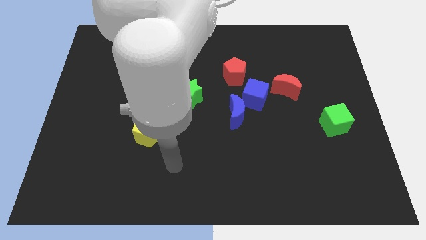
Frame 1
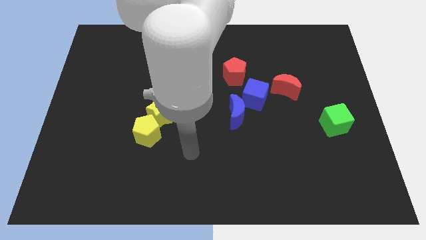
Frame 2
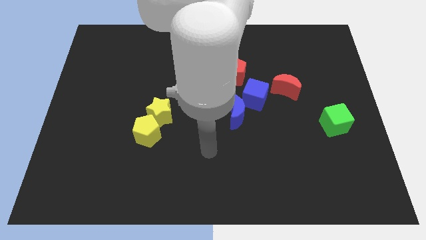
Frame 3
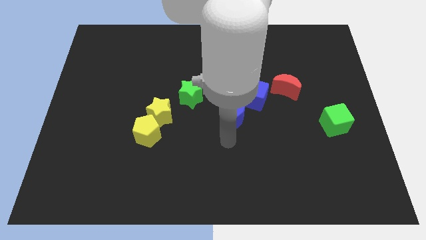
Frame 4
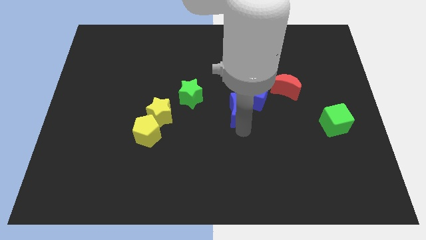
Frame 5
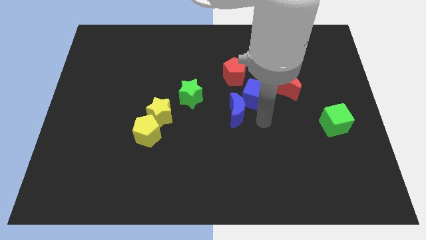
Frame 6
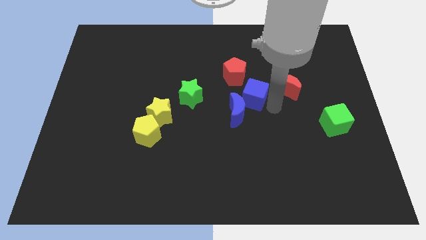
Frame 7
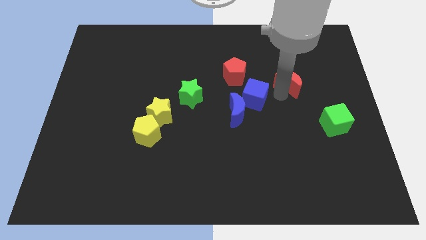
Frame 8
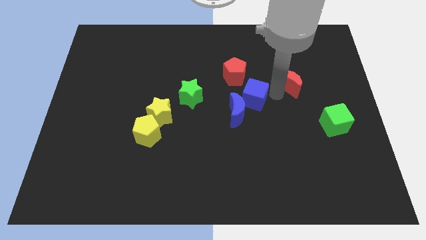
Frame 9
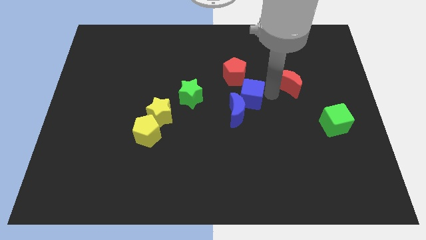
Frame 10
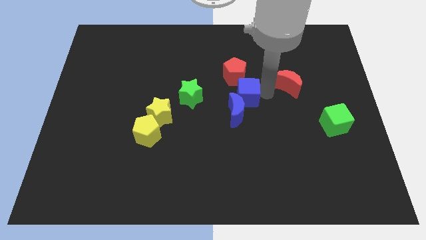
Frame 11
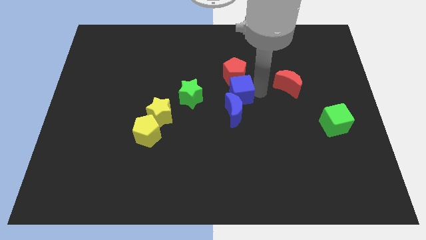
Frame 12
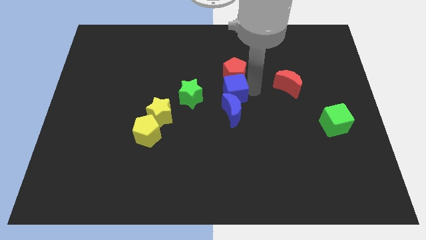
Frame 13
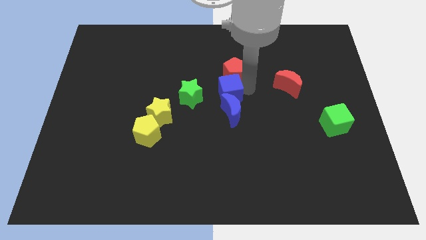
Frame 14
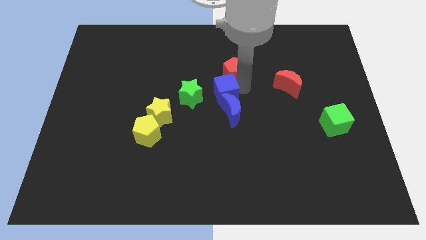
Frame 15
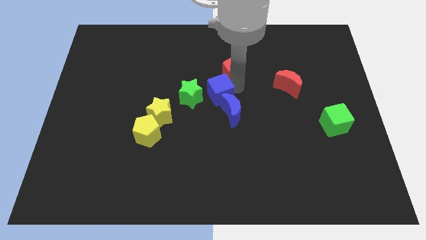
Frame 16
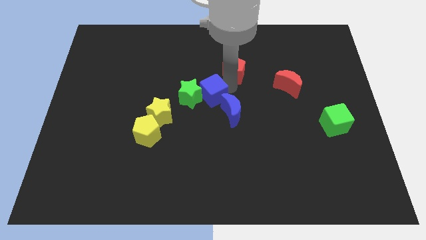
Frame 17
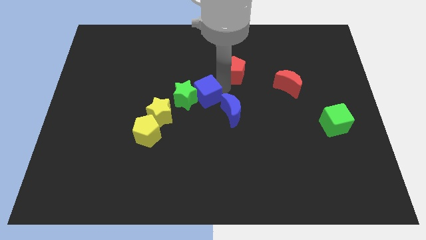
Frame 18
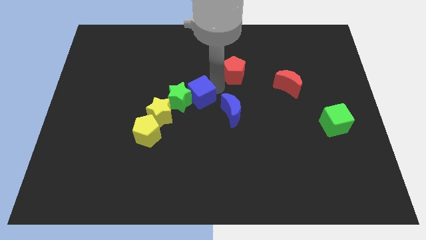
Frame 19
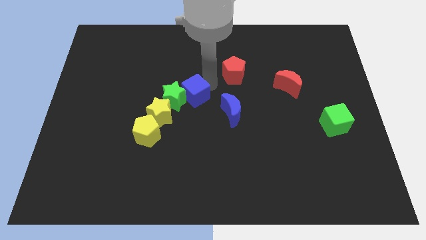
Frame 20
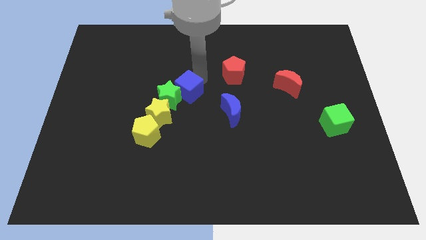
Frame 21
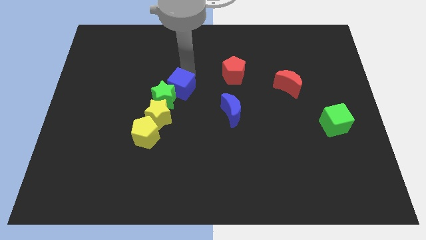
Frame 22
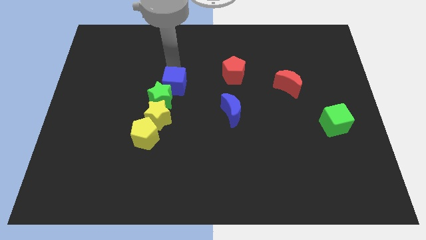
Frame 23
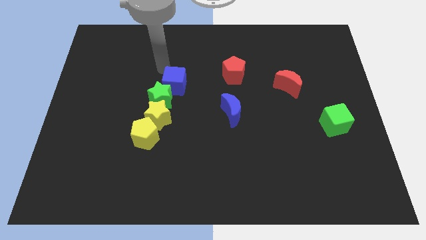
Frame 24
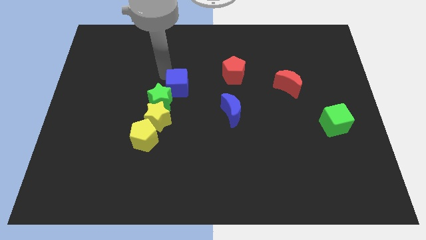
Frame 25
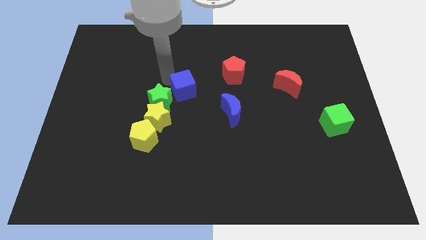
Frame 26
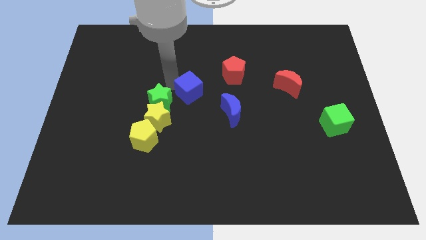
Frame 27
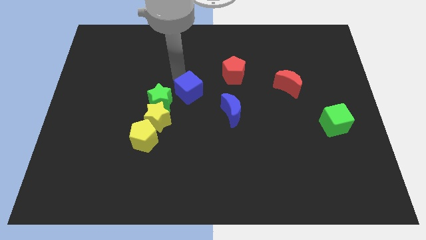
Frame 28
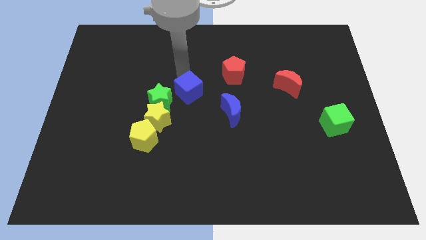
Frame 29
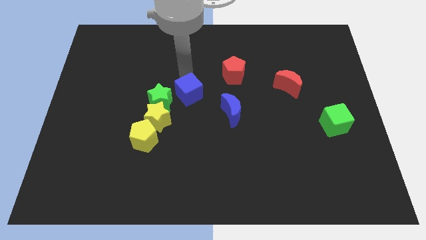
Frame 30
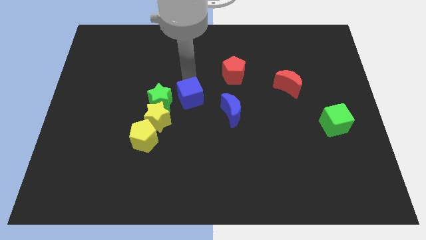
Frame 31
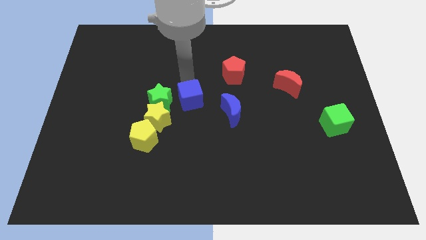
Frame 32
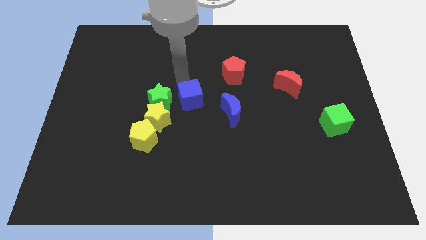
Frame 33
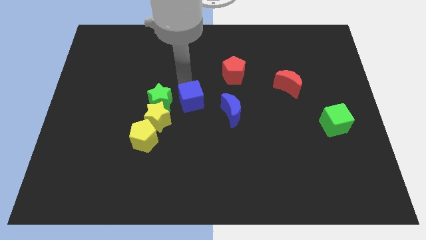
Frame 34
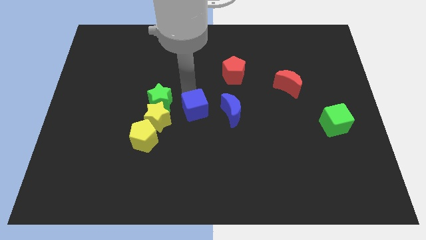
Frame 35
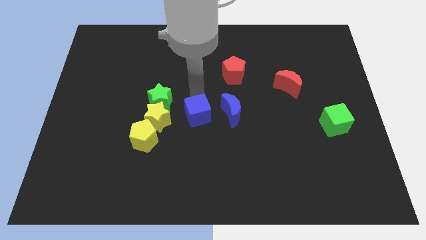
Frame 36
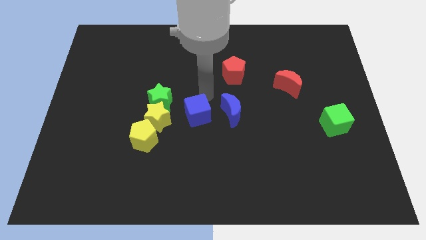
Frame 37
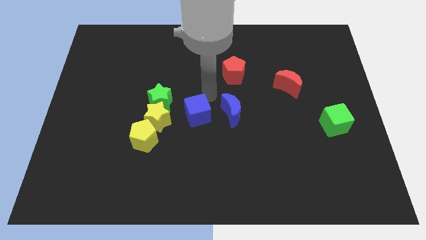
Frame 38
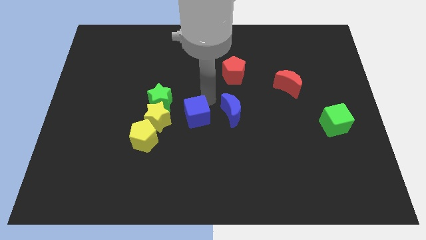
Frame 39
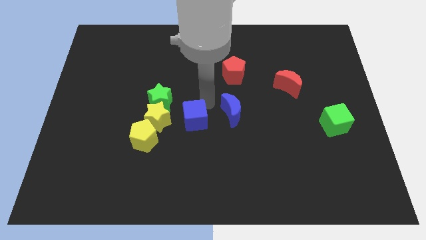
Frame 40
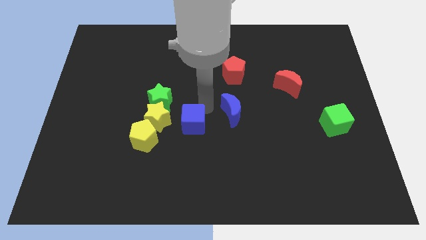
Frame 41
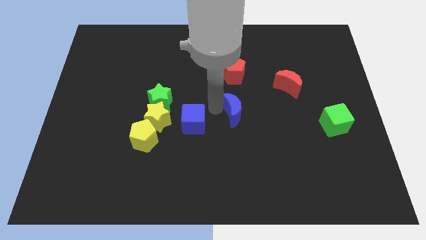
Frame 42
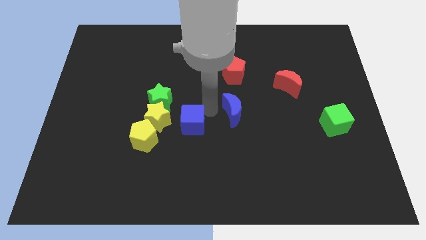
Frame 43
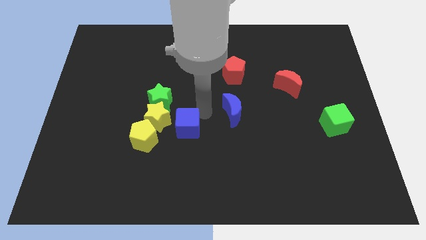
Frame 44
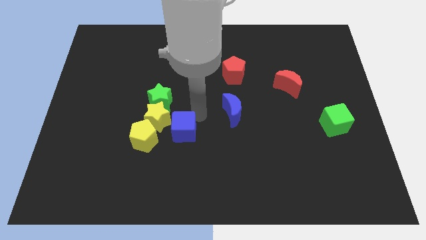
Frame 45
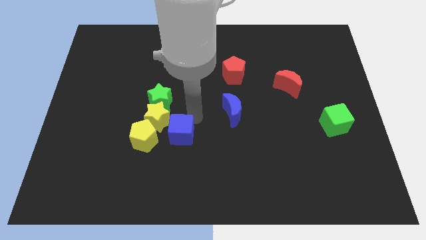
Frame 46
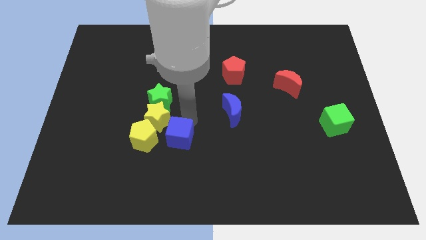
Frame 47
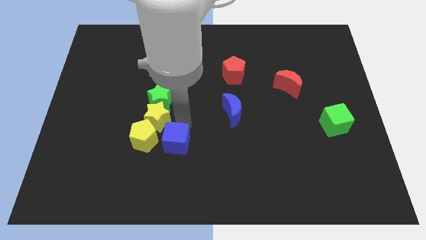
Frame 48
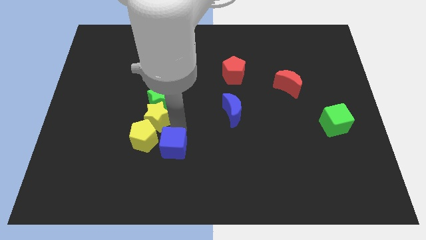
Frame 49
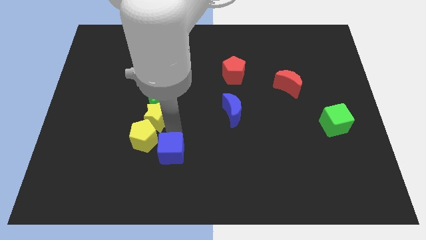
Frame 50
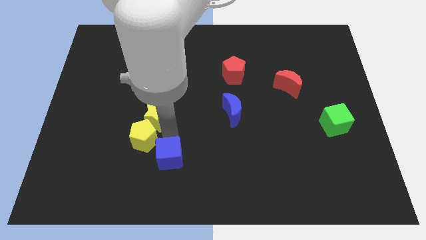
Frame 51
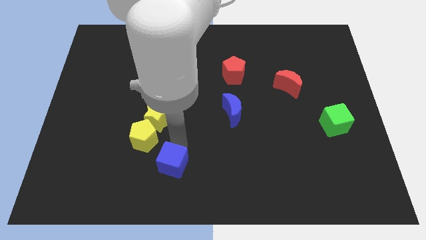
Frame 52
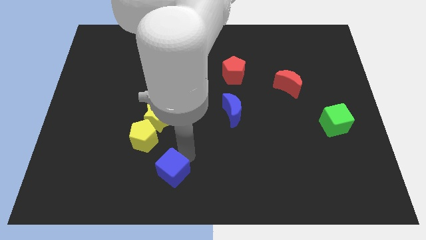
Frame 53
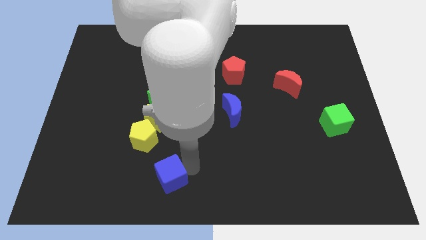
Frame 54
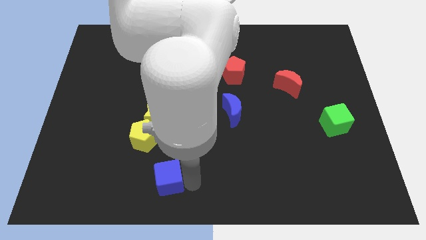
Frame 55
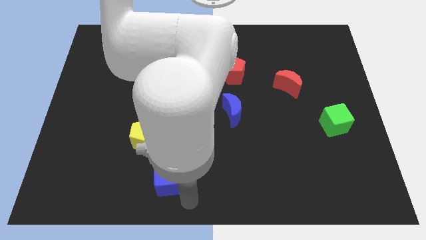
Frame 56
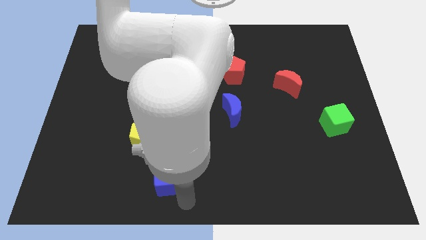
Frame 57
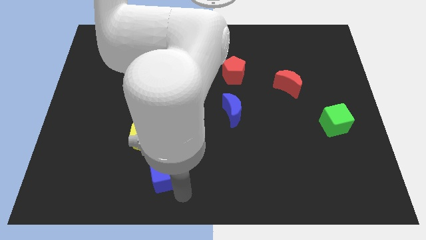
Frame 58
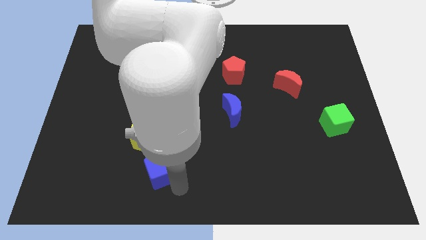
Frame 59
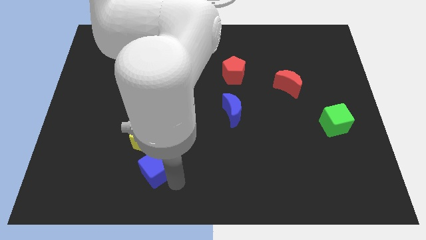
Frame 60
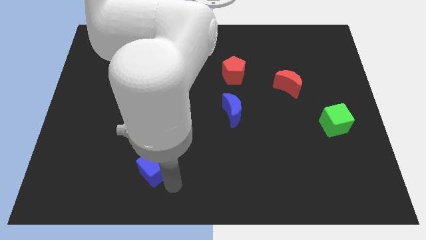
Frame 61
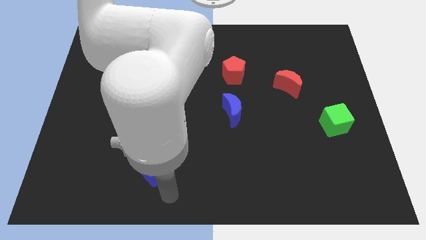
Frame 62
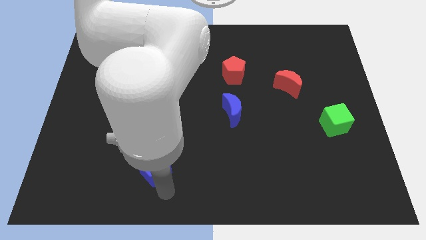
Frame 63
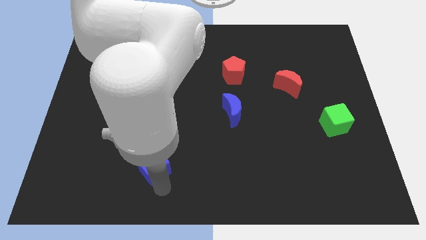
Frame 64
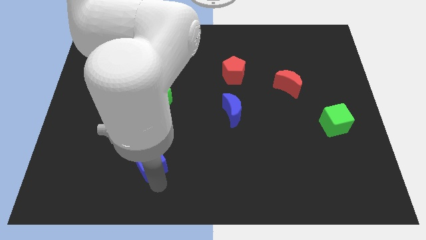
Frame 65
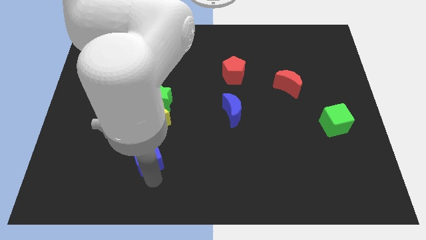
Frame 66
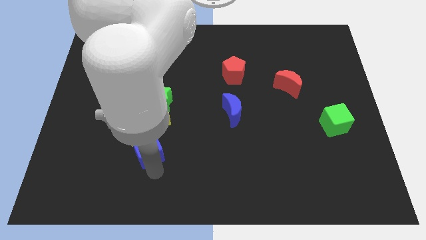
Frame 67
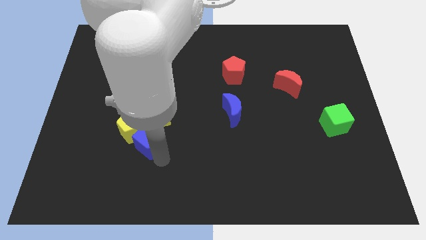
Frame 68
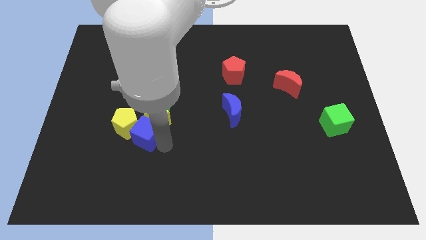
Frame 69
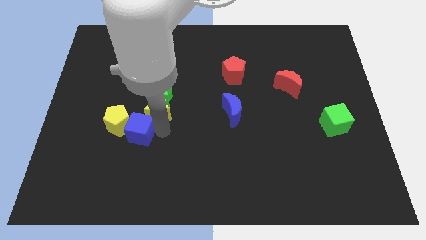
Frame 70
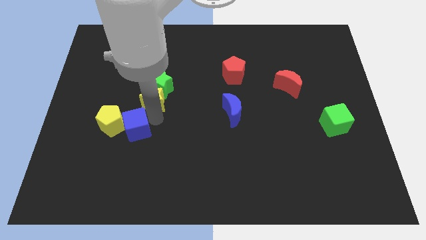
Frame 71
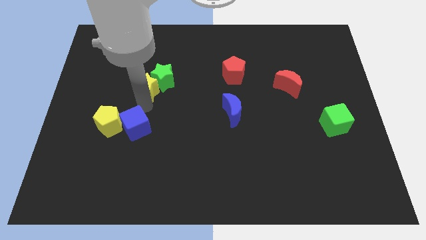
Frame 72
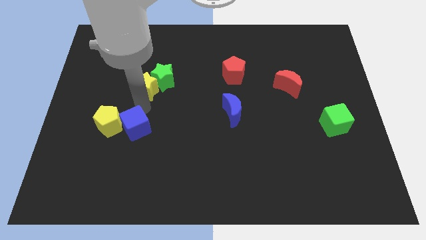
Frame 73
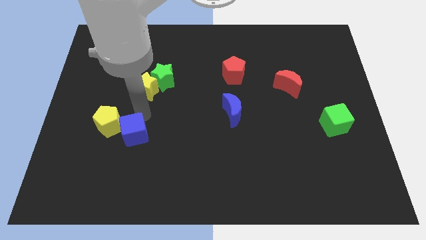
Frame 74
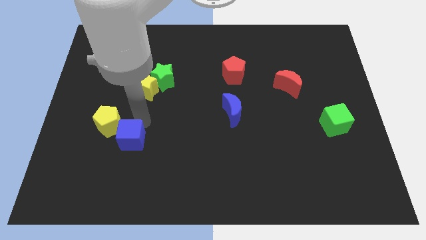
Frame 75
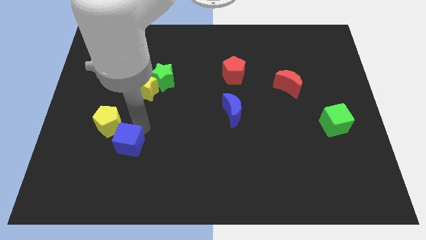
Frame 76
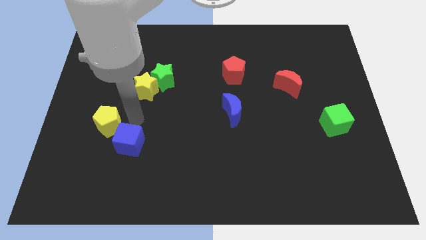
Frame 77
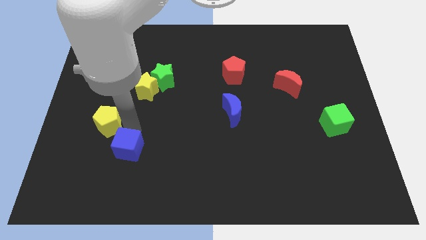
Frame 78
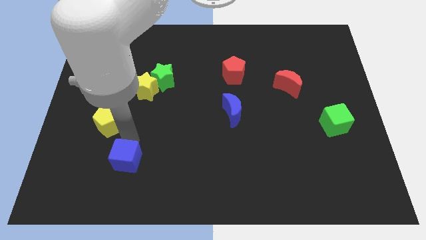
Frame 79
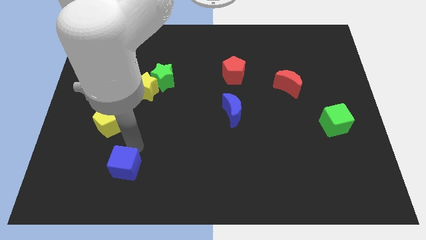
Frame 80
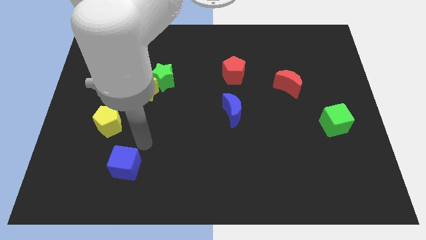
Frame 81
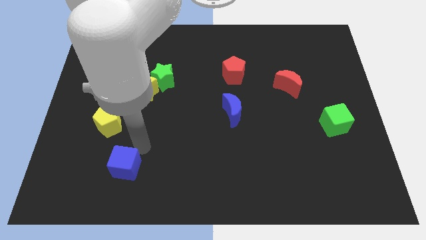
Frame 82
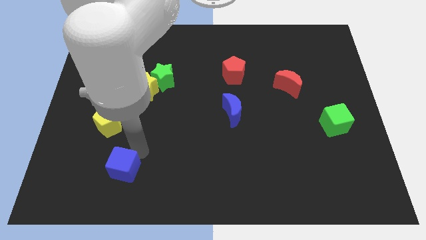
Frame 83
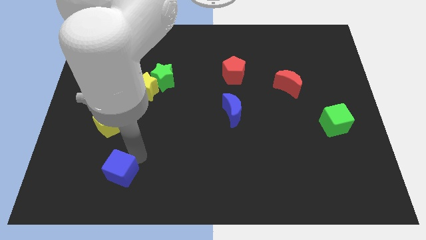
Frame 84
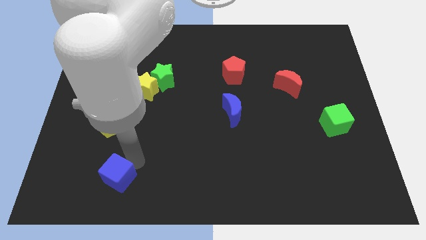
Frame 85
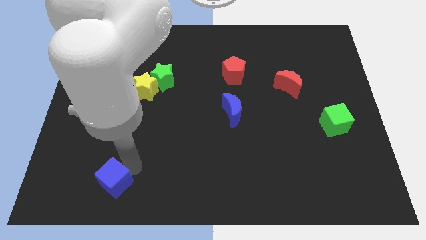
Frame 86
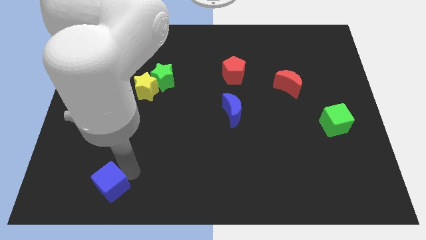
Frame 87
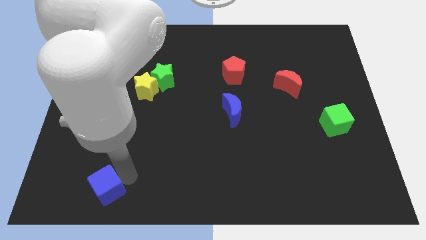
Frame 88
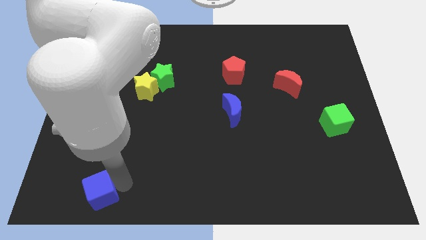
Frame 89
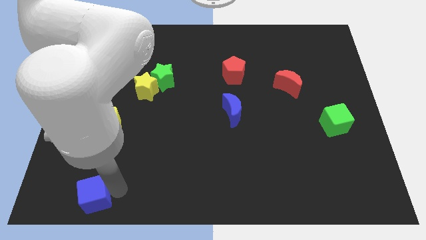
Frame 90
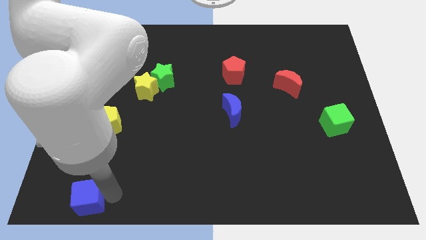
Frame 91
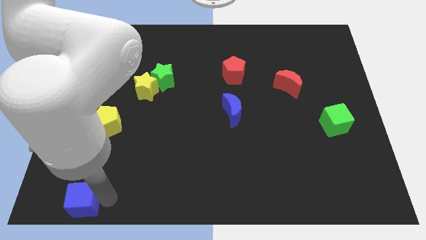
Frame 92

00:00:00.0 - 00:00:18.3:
move the blue cube to the lower left corner
